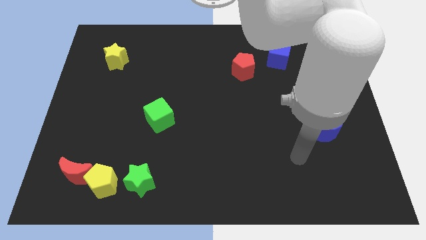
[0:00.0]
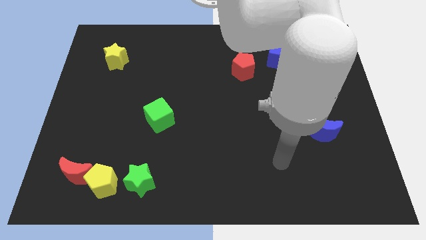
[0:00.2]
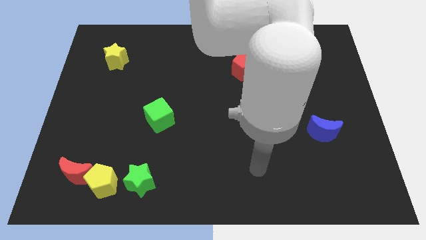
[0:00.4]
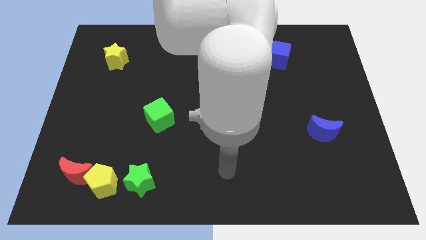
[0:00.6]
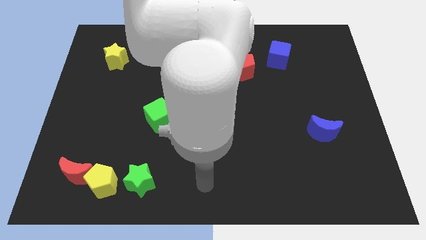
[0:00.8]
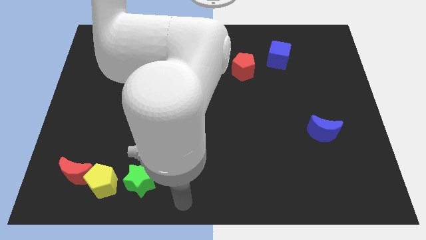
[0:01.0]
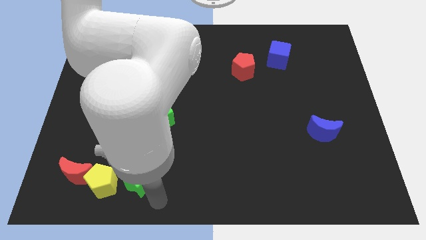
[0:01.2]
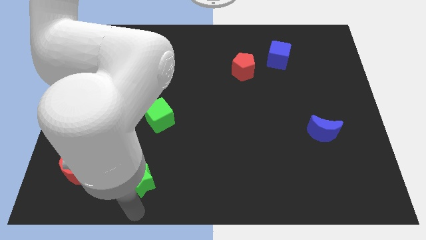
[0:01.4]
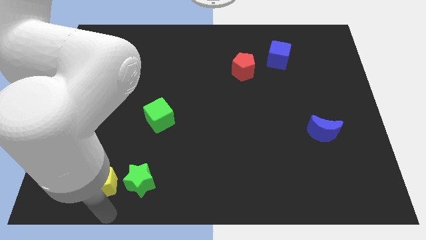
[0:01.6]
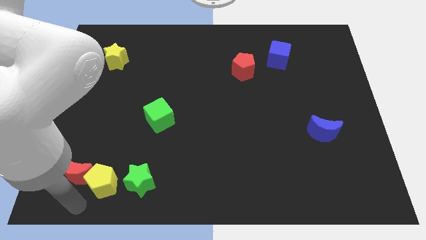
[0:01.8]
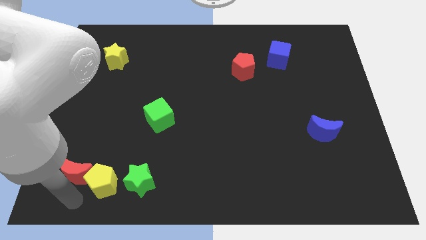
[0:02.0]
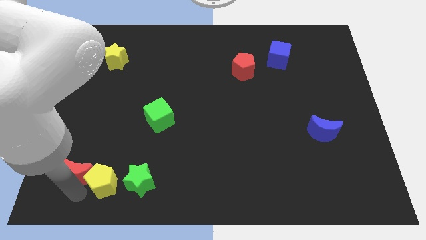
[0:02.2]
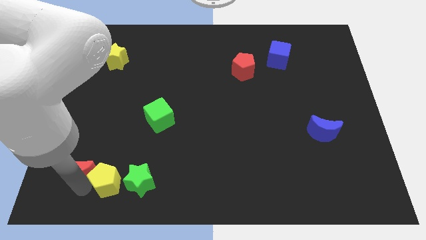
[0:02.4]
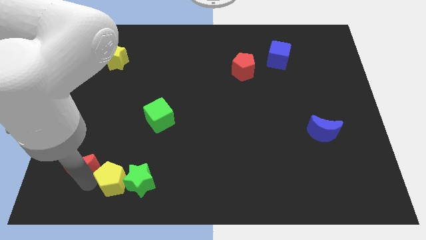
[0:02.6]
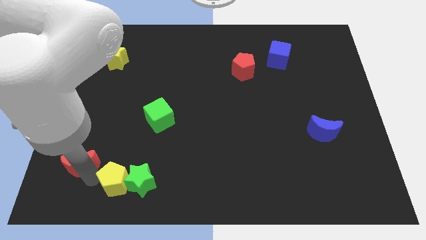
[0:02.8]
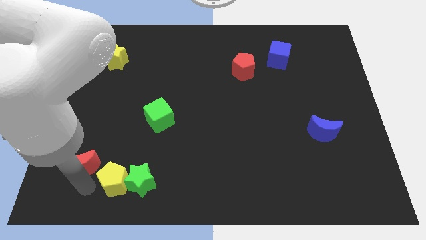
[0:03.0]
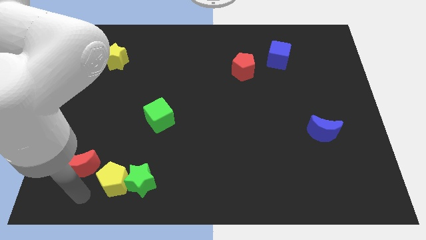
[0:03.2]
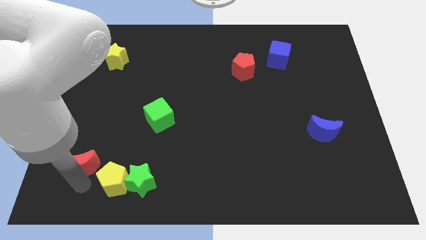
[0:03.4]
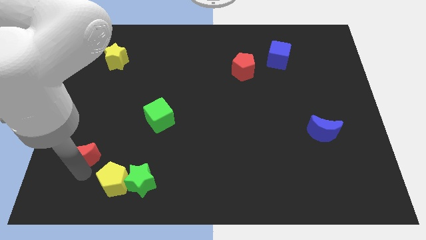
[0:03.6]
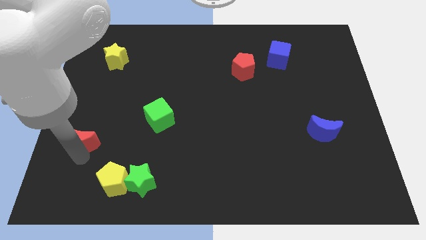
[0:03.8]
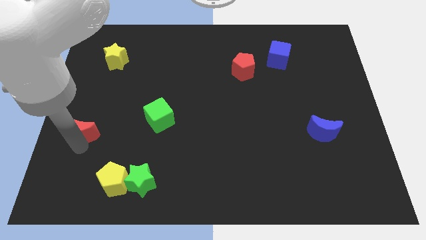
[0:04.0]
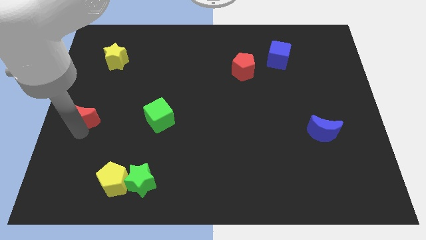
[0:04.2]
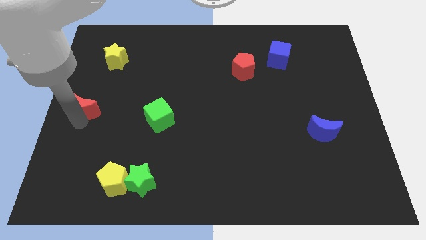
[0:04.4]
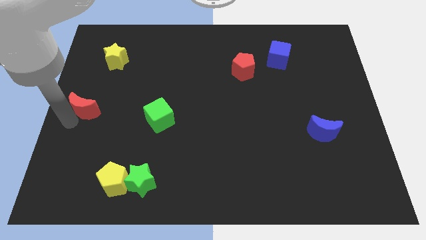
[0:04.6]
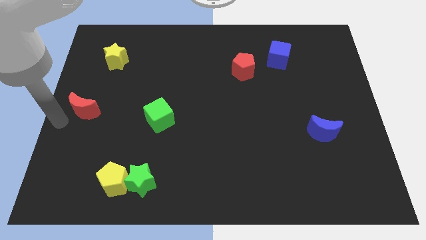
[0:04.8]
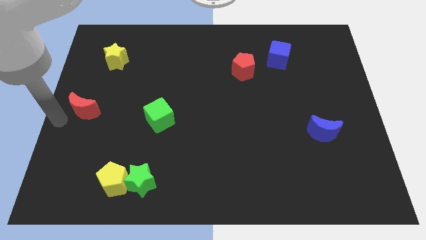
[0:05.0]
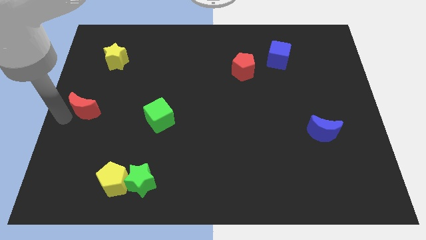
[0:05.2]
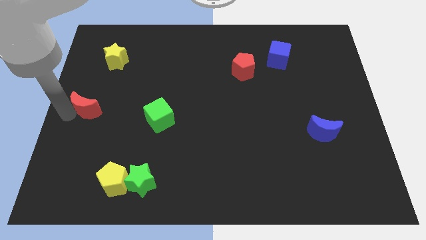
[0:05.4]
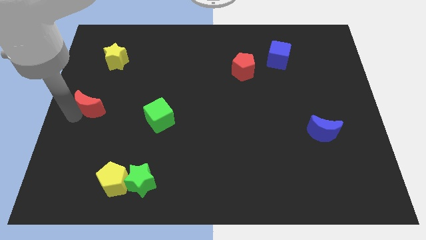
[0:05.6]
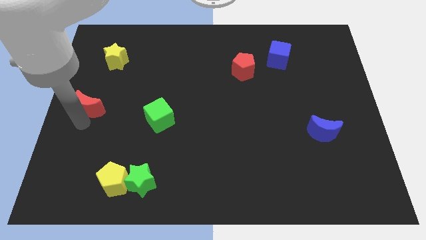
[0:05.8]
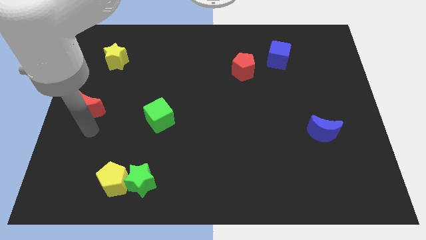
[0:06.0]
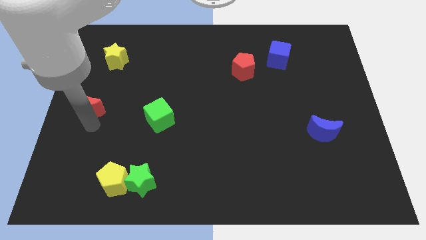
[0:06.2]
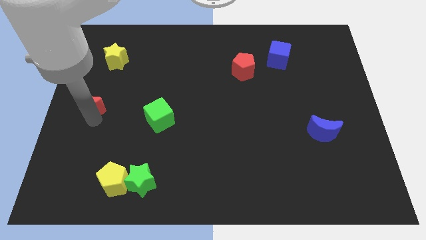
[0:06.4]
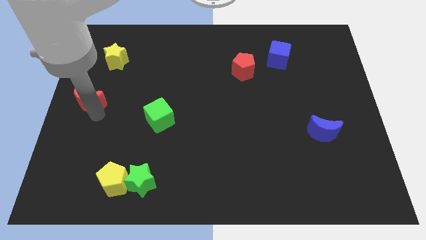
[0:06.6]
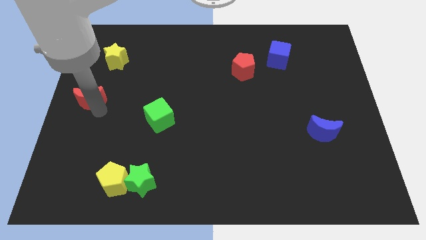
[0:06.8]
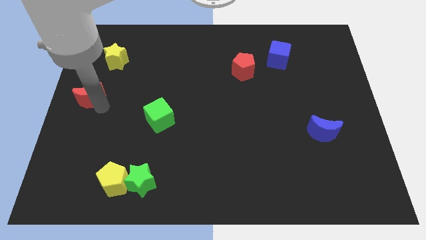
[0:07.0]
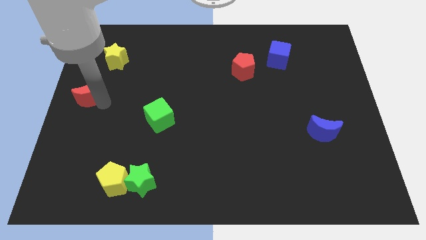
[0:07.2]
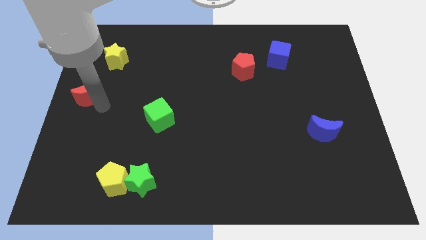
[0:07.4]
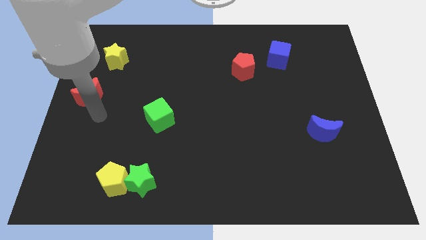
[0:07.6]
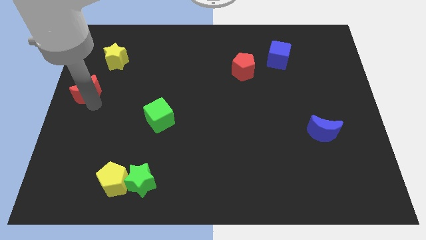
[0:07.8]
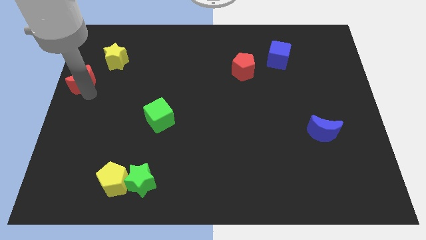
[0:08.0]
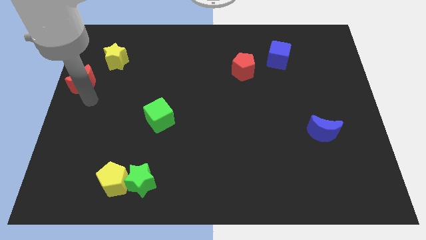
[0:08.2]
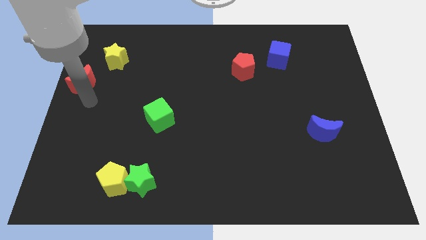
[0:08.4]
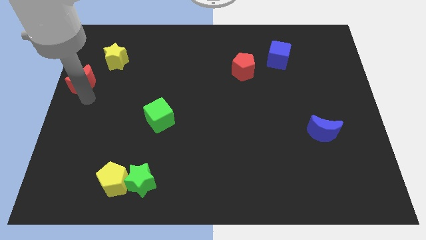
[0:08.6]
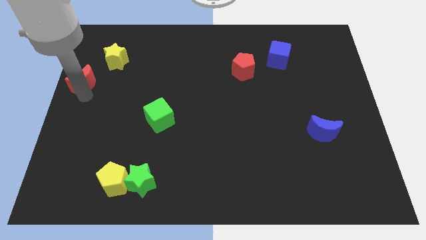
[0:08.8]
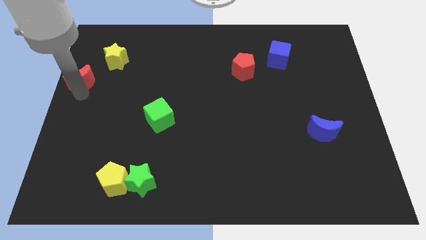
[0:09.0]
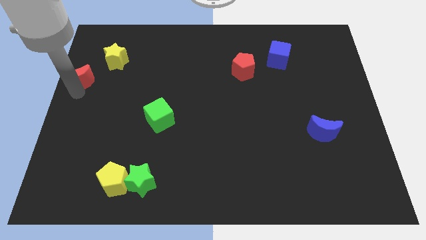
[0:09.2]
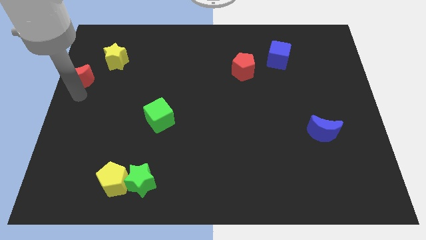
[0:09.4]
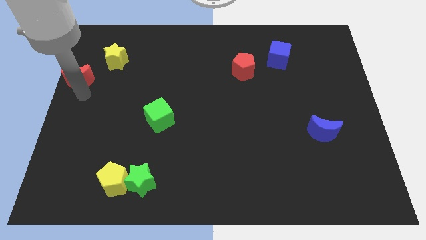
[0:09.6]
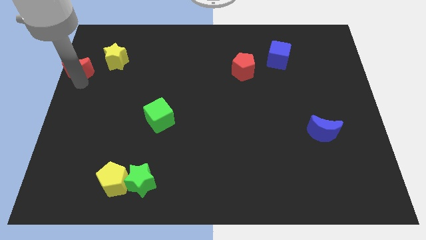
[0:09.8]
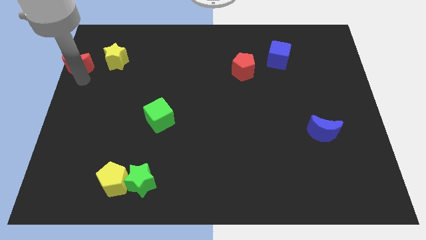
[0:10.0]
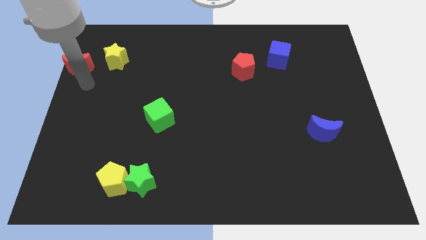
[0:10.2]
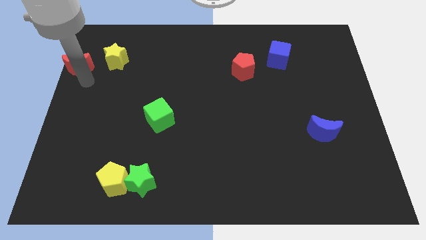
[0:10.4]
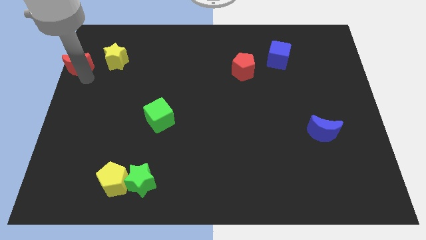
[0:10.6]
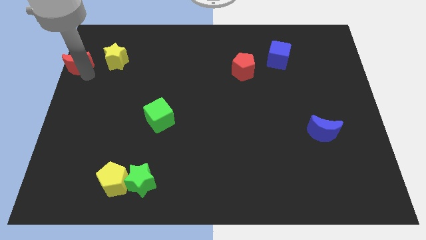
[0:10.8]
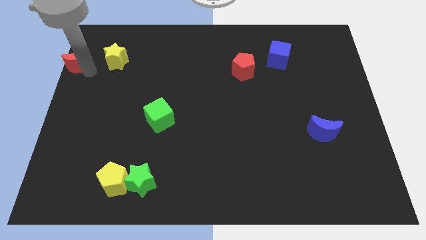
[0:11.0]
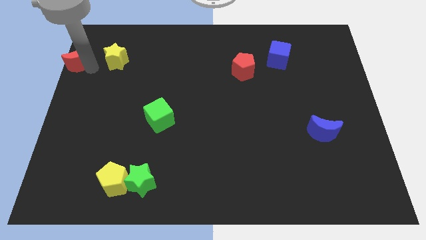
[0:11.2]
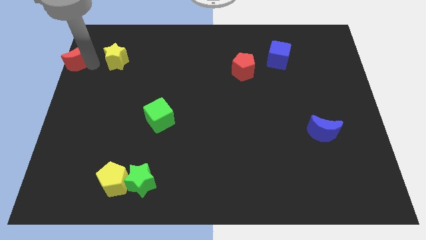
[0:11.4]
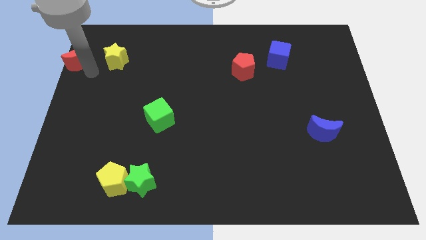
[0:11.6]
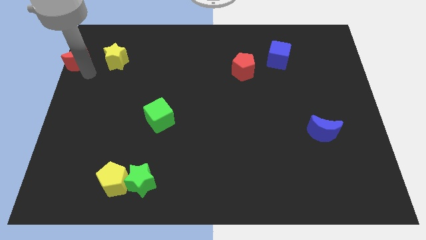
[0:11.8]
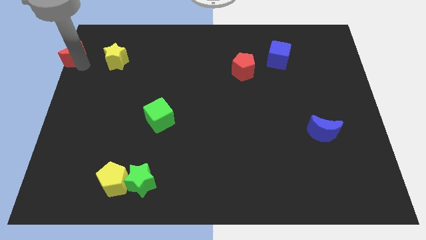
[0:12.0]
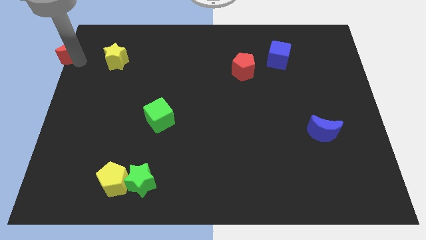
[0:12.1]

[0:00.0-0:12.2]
slide the red moon to the top left of the board
